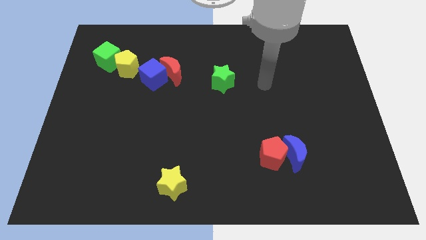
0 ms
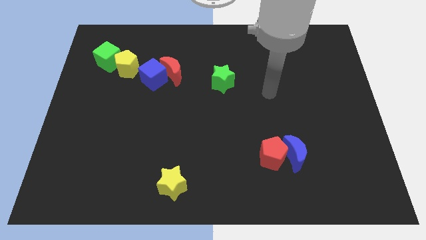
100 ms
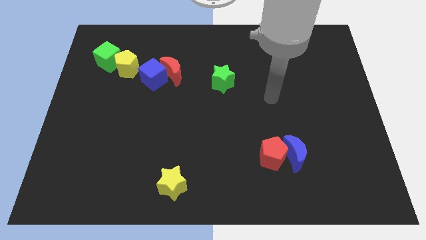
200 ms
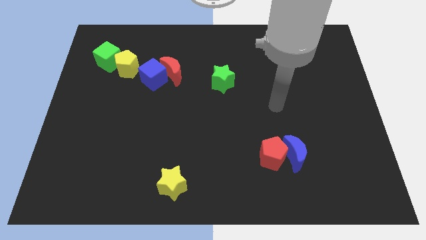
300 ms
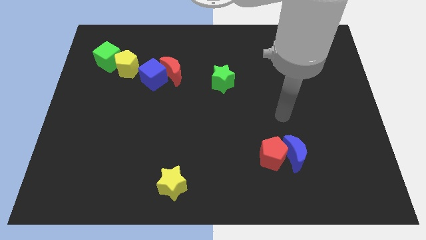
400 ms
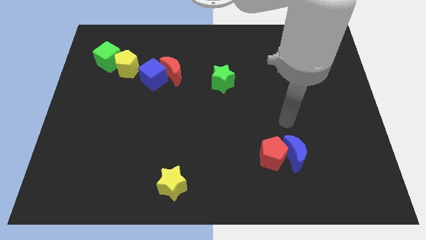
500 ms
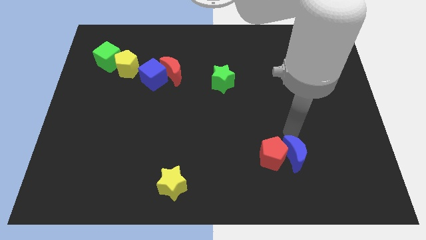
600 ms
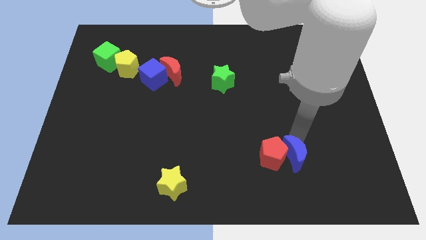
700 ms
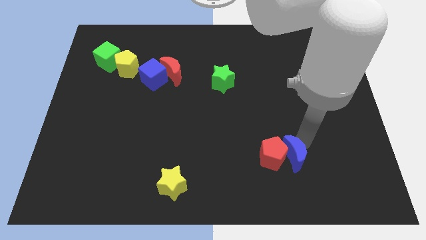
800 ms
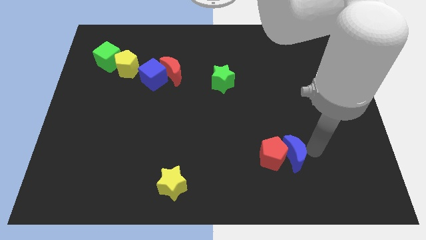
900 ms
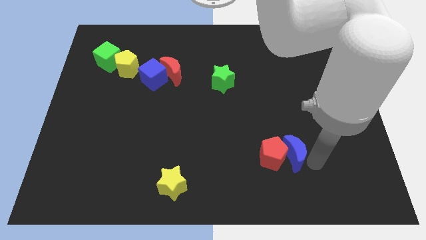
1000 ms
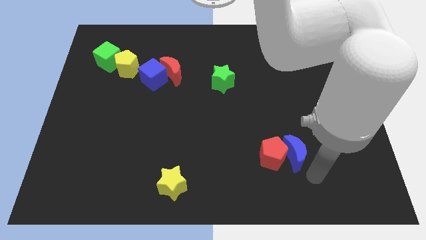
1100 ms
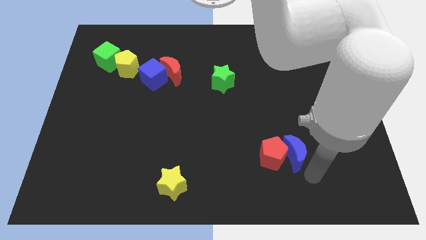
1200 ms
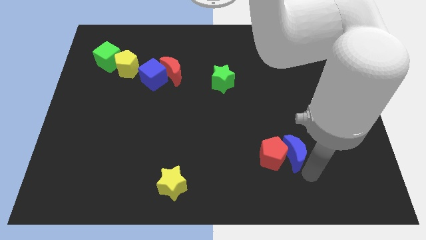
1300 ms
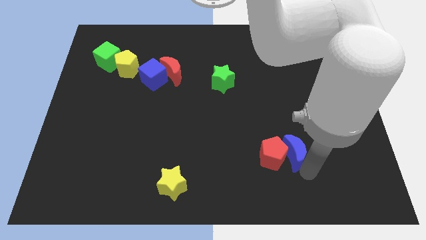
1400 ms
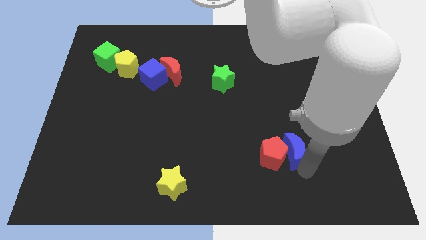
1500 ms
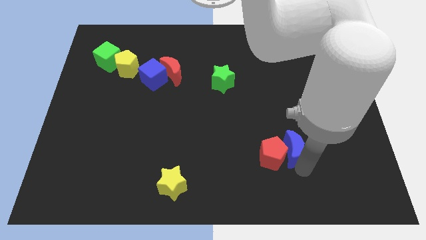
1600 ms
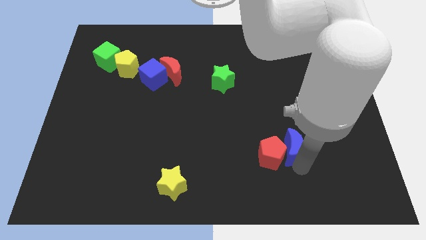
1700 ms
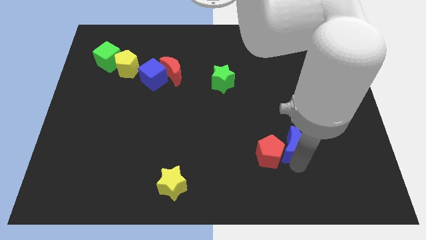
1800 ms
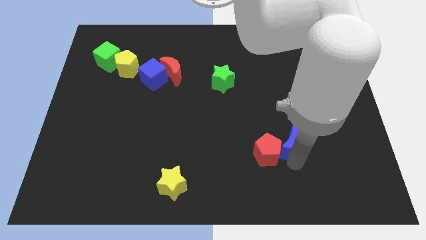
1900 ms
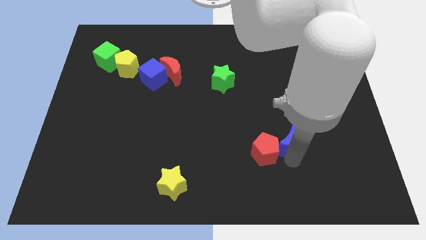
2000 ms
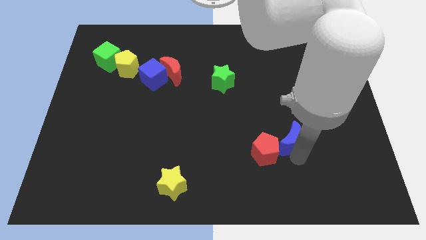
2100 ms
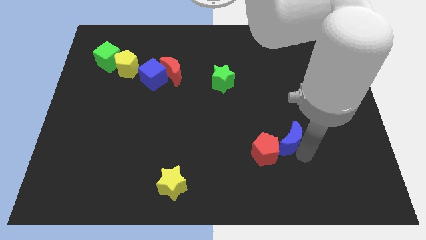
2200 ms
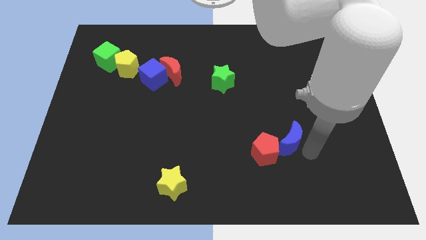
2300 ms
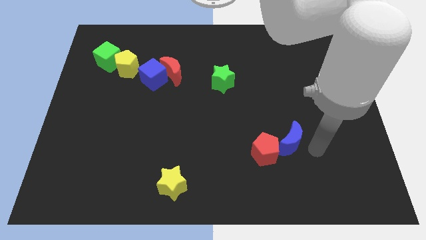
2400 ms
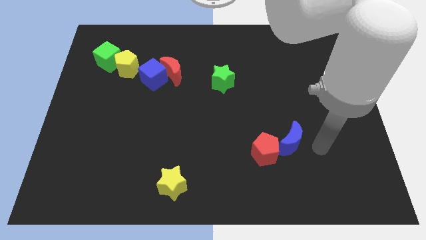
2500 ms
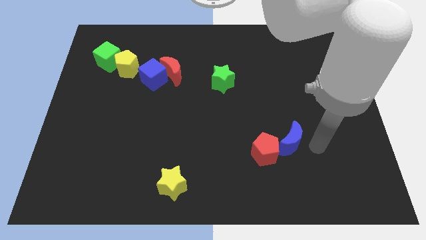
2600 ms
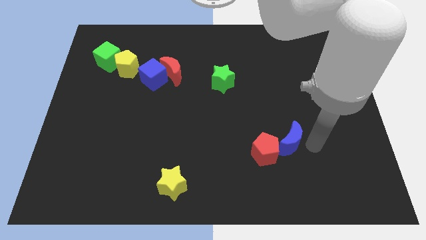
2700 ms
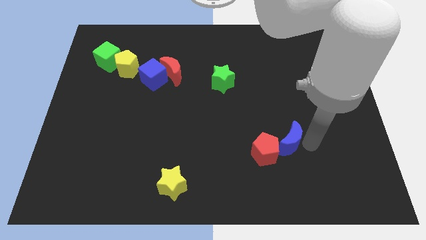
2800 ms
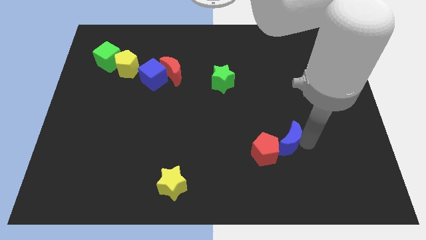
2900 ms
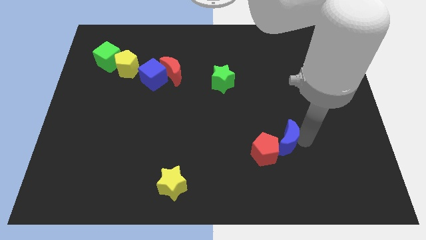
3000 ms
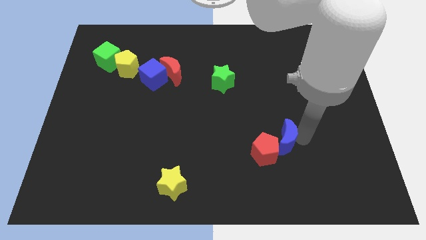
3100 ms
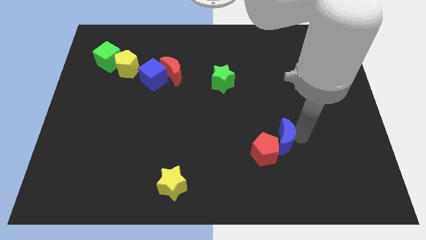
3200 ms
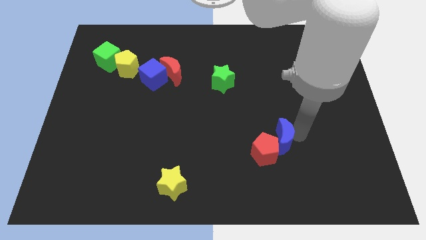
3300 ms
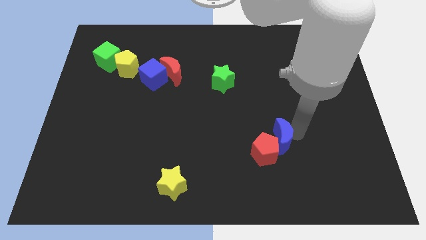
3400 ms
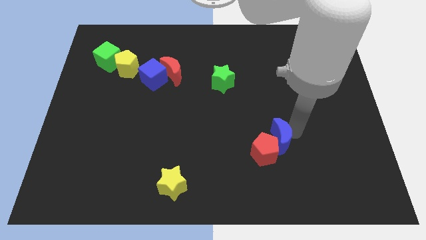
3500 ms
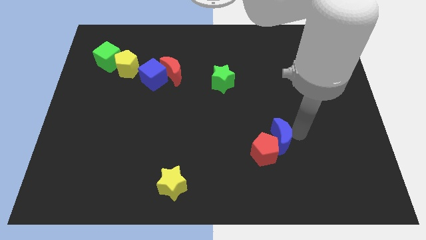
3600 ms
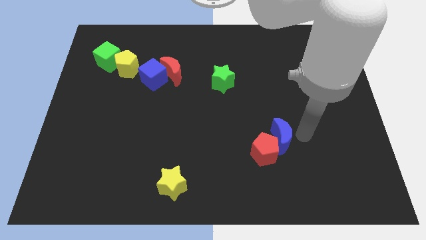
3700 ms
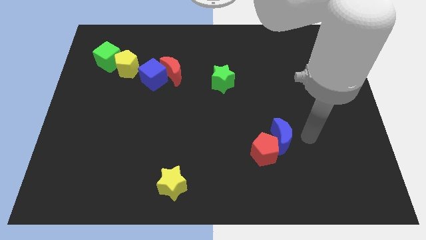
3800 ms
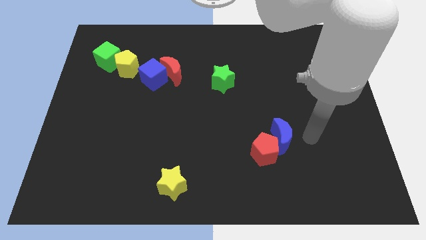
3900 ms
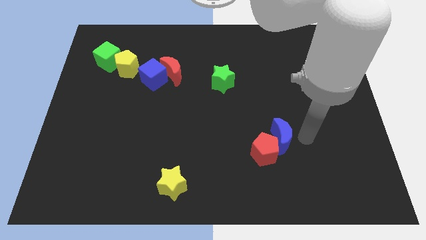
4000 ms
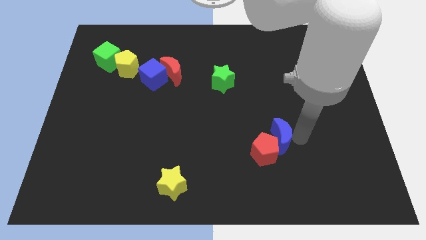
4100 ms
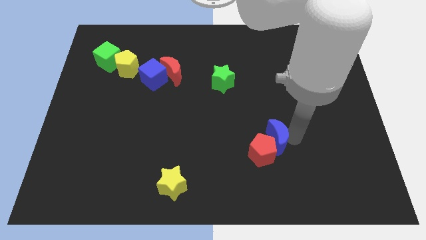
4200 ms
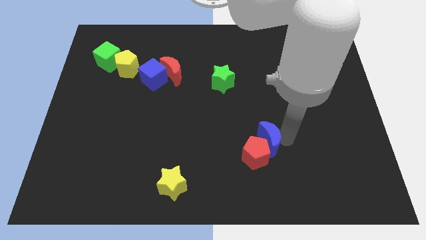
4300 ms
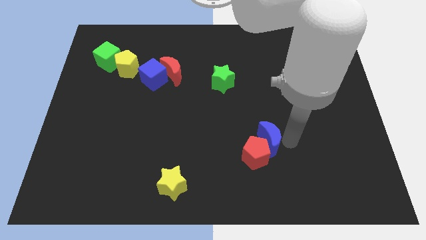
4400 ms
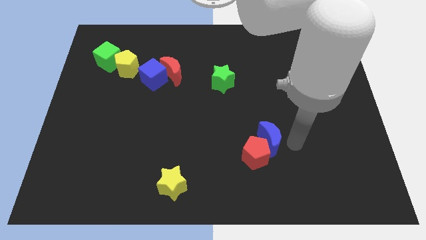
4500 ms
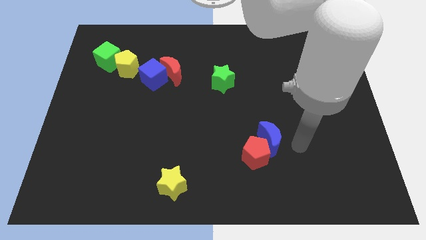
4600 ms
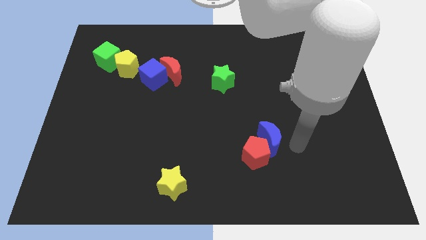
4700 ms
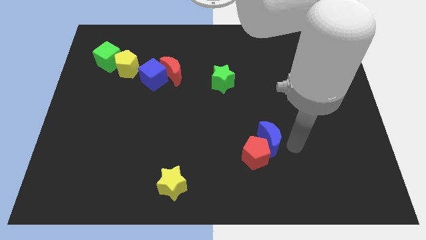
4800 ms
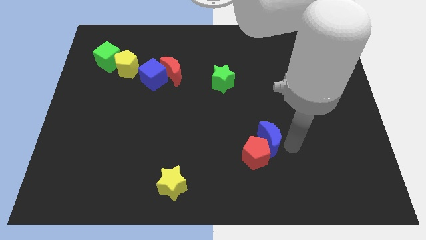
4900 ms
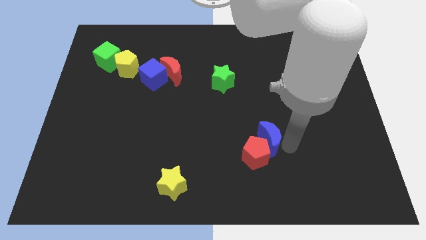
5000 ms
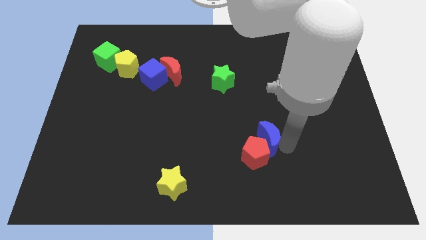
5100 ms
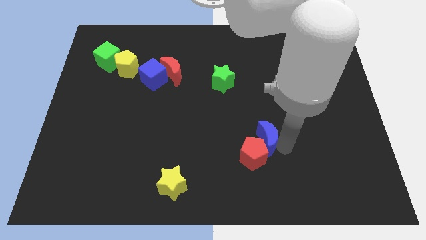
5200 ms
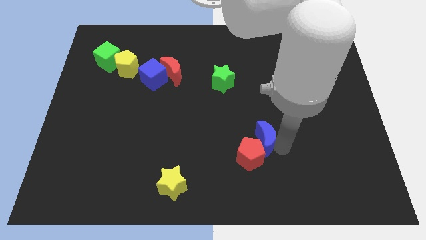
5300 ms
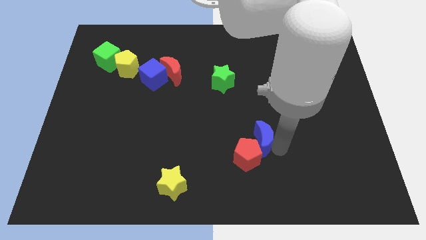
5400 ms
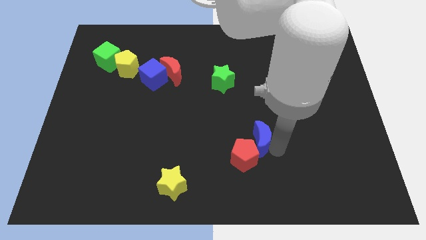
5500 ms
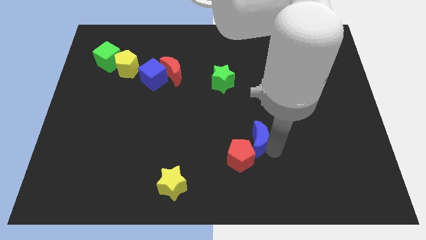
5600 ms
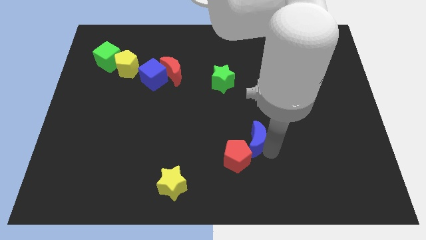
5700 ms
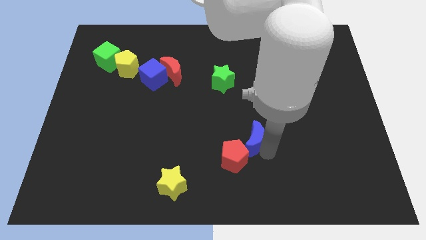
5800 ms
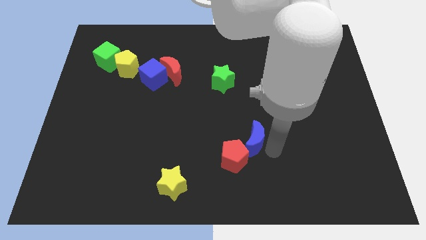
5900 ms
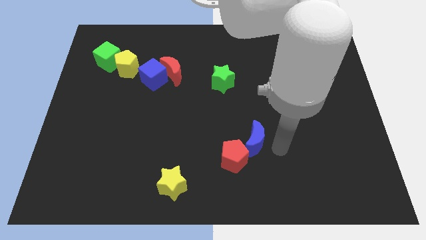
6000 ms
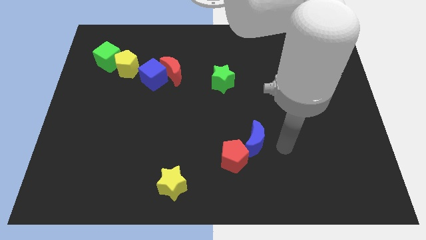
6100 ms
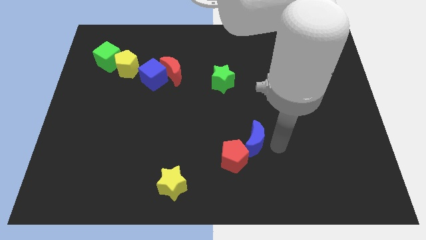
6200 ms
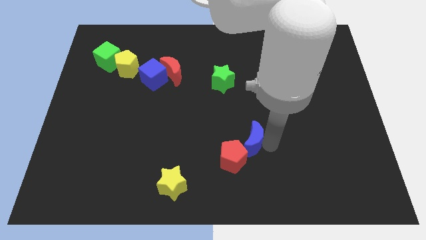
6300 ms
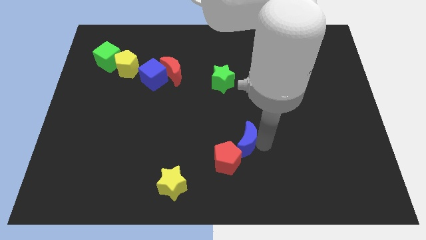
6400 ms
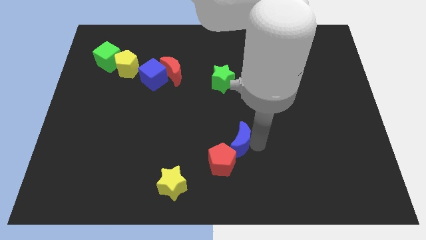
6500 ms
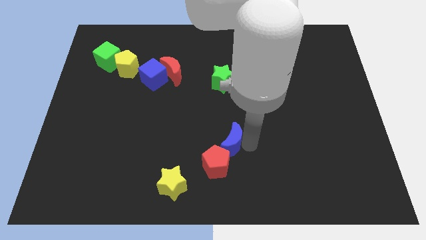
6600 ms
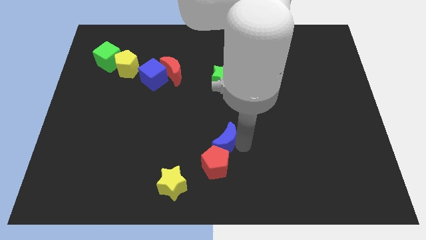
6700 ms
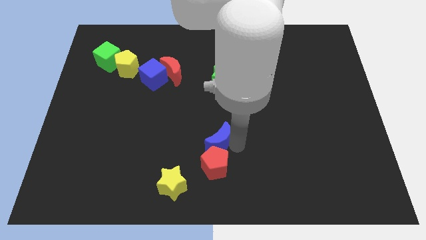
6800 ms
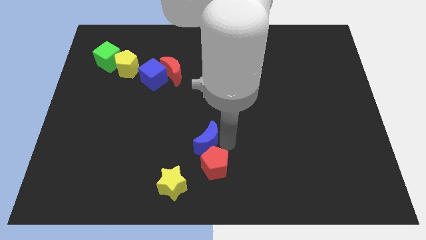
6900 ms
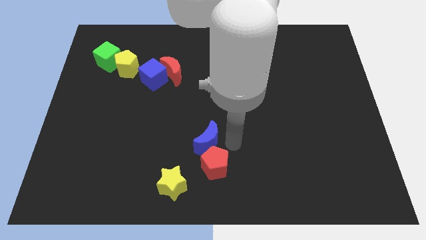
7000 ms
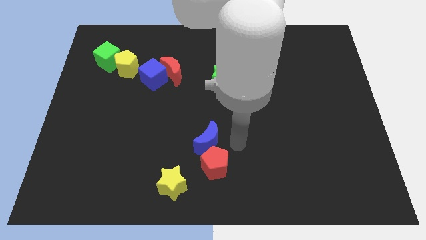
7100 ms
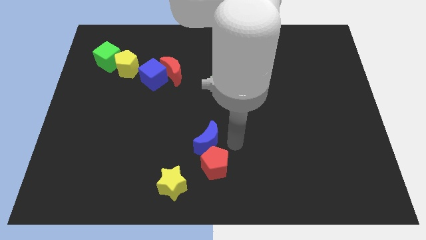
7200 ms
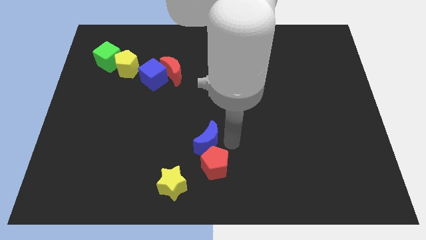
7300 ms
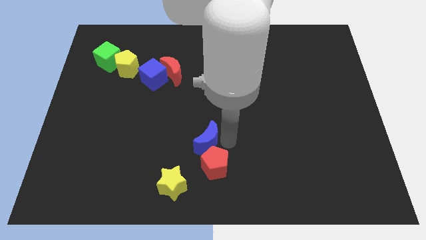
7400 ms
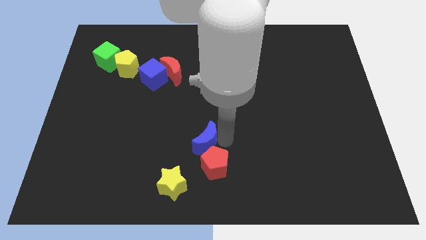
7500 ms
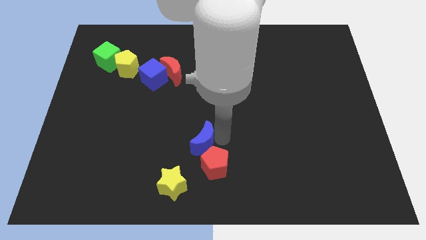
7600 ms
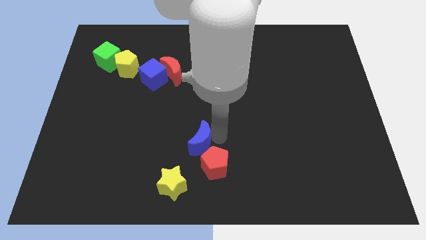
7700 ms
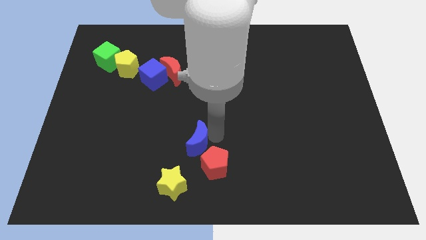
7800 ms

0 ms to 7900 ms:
slide the blue moon to the left

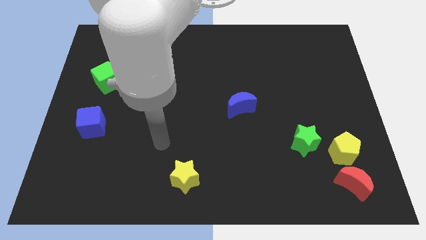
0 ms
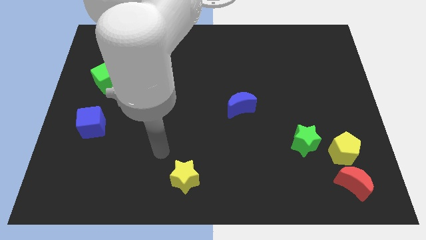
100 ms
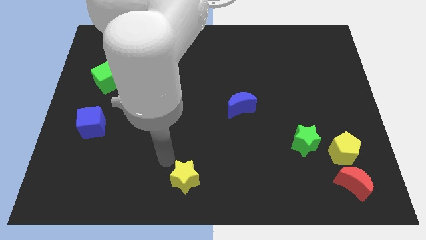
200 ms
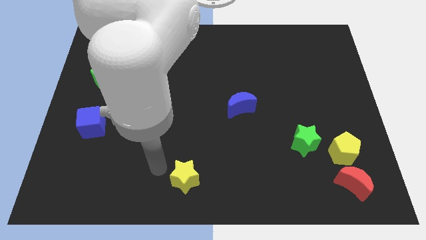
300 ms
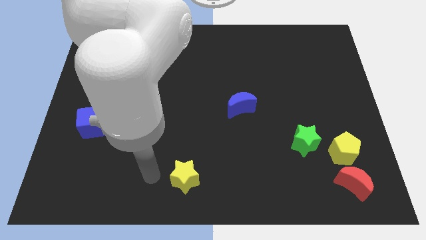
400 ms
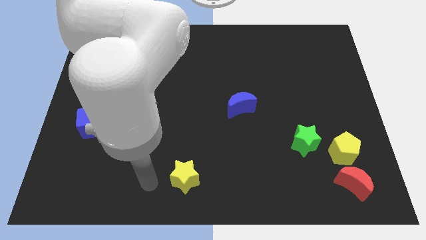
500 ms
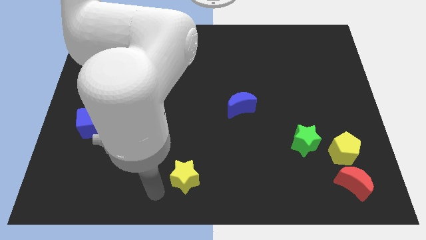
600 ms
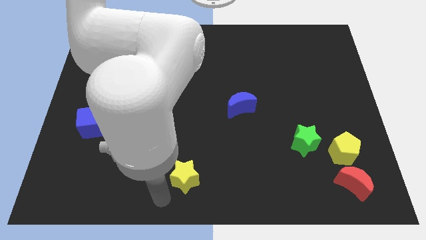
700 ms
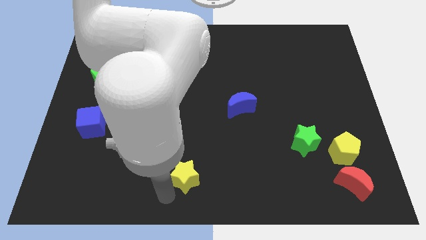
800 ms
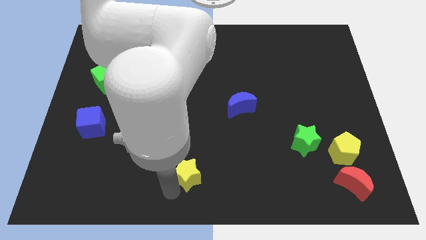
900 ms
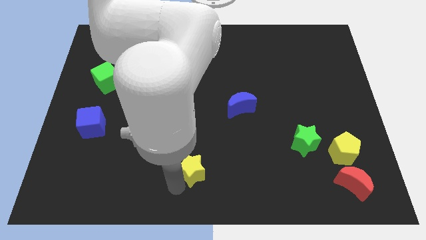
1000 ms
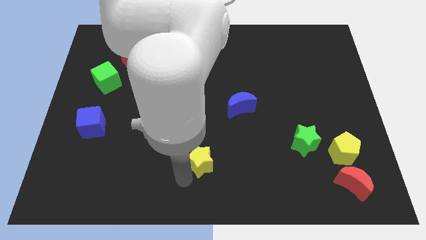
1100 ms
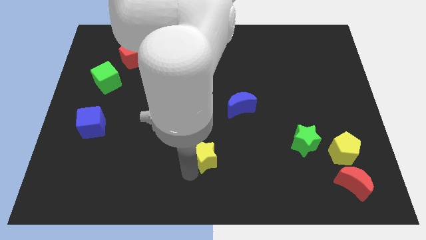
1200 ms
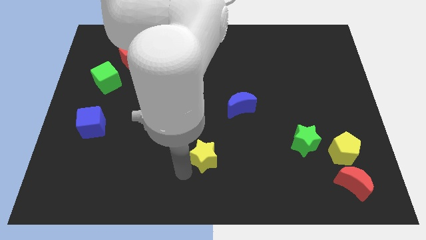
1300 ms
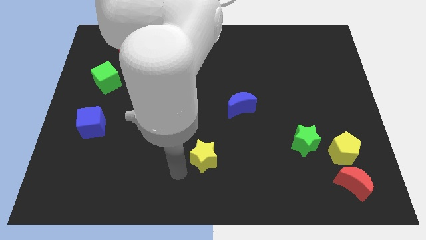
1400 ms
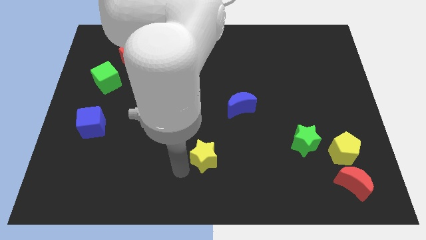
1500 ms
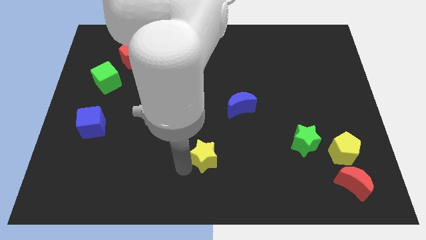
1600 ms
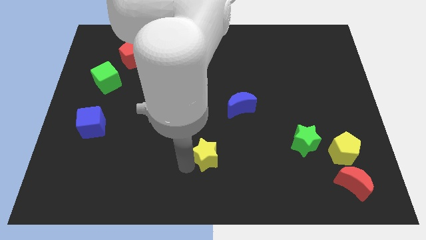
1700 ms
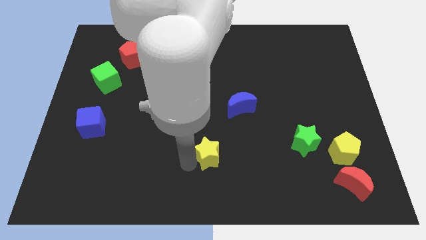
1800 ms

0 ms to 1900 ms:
slide the yellow star a little bit upwards and to the right diagonally
